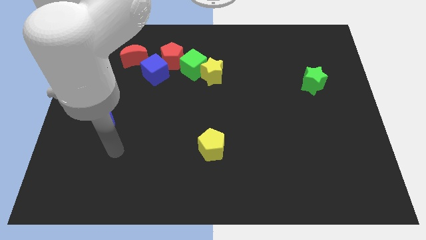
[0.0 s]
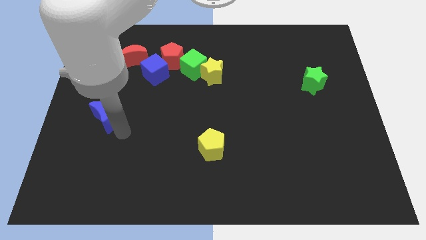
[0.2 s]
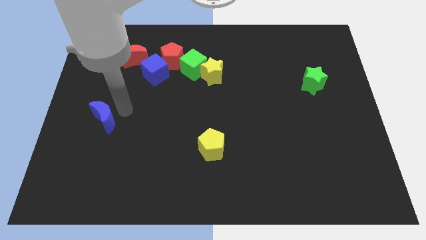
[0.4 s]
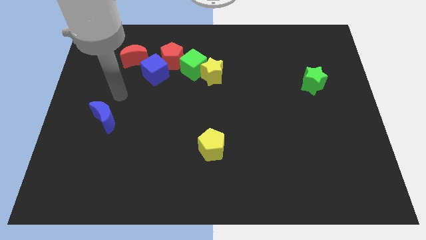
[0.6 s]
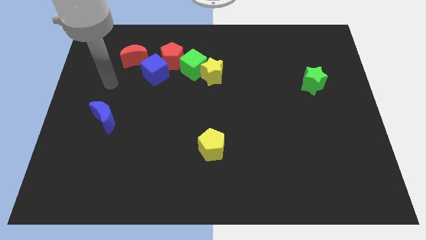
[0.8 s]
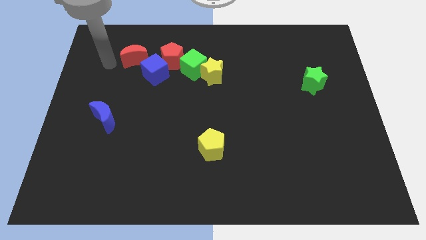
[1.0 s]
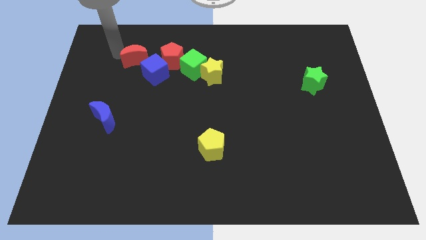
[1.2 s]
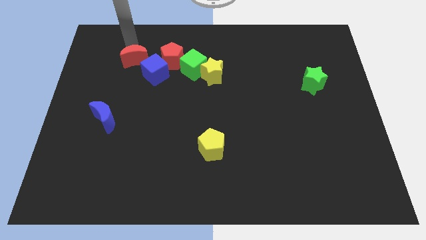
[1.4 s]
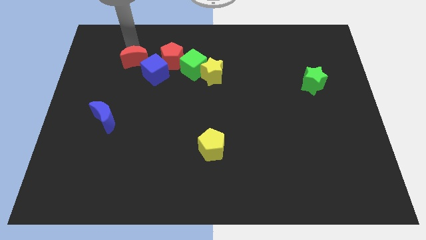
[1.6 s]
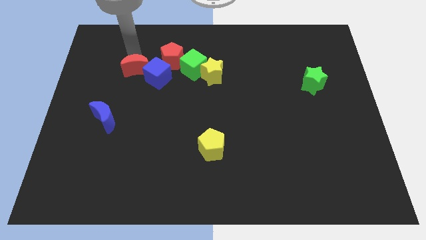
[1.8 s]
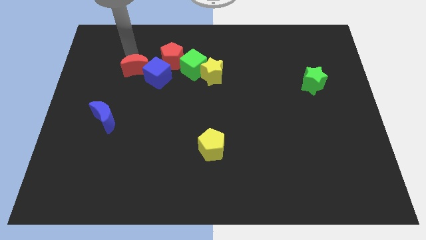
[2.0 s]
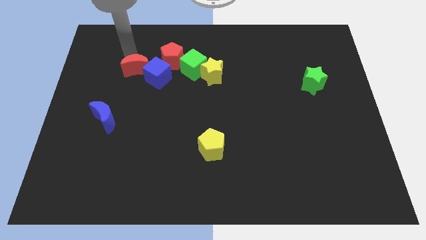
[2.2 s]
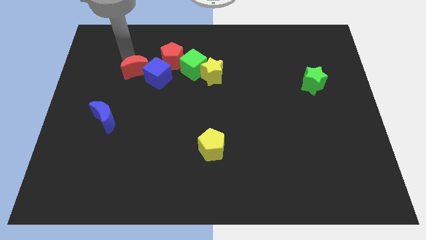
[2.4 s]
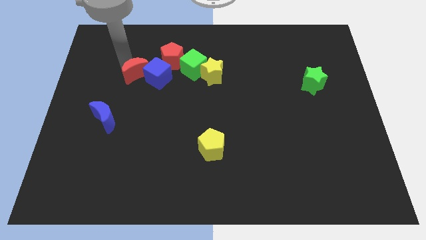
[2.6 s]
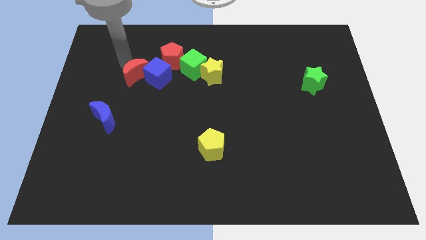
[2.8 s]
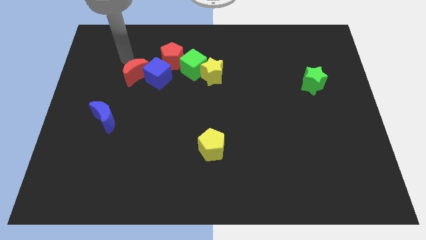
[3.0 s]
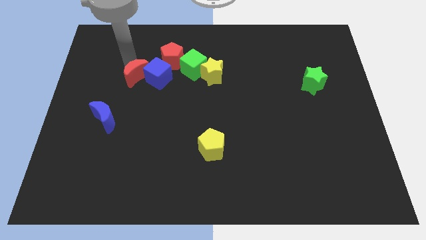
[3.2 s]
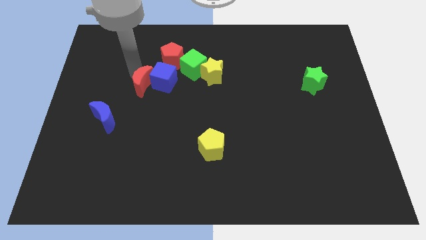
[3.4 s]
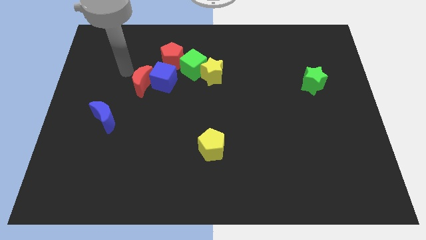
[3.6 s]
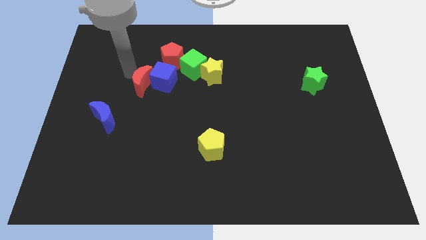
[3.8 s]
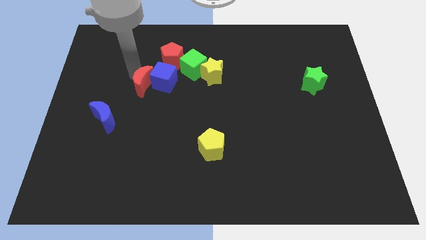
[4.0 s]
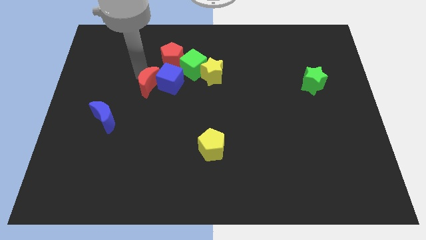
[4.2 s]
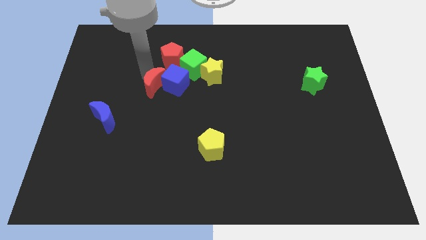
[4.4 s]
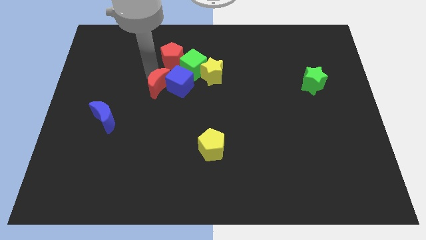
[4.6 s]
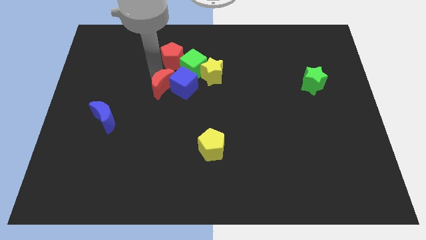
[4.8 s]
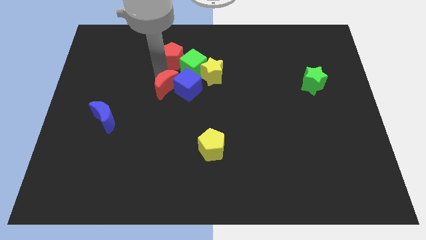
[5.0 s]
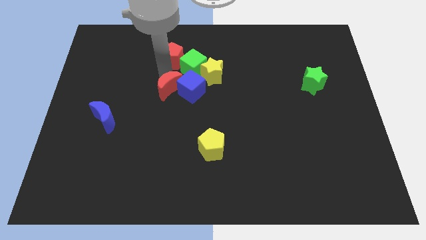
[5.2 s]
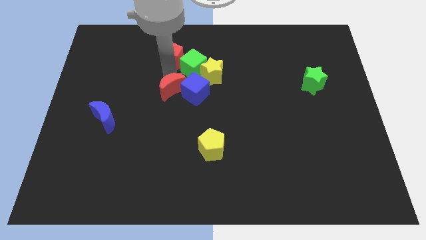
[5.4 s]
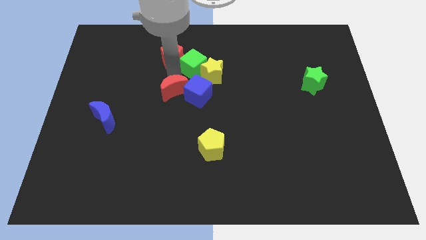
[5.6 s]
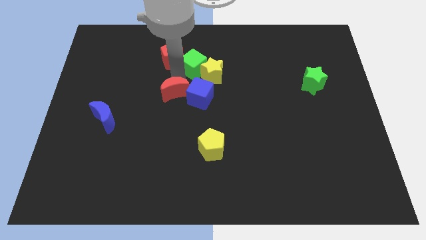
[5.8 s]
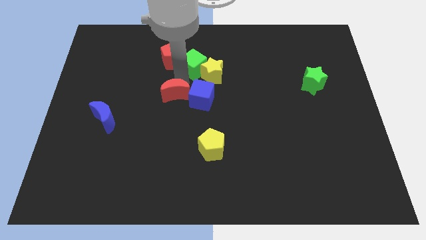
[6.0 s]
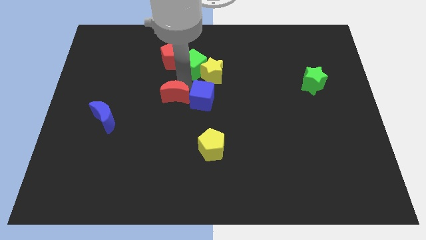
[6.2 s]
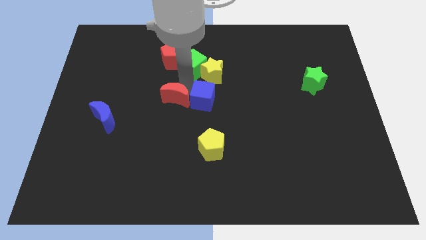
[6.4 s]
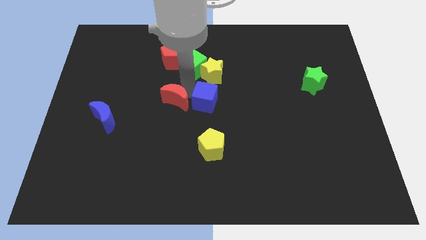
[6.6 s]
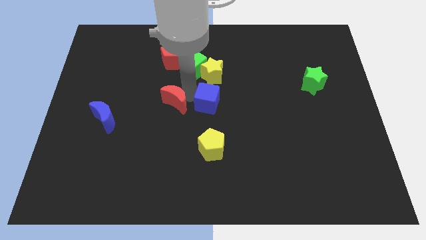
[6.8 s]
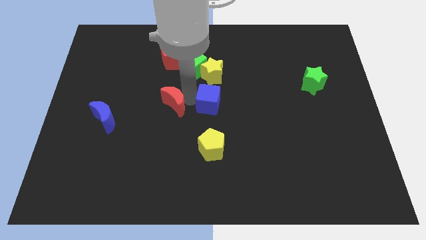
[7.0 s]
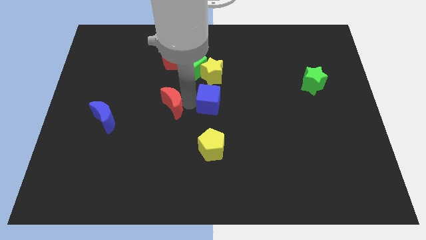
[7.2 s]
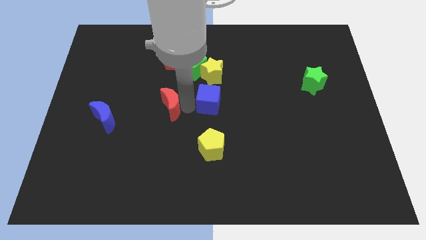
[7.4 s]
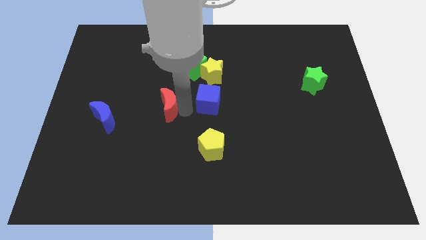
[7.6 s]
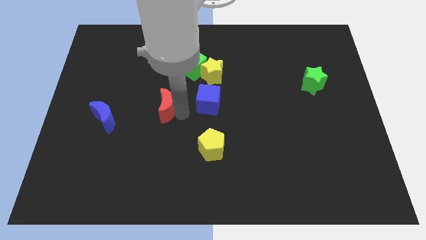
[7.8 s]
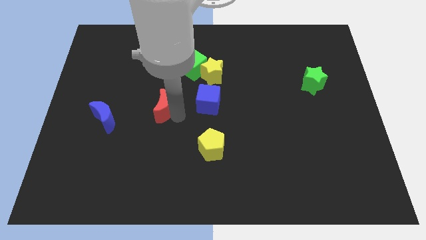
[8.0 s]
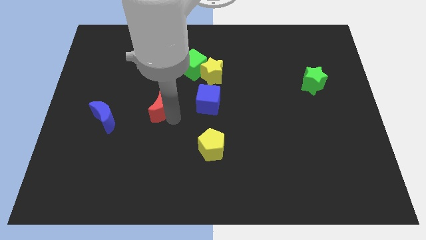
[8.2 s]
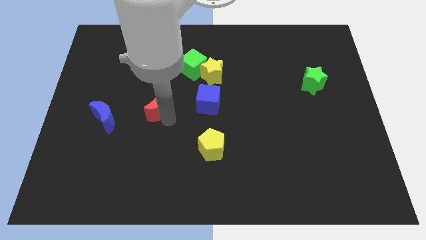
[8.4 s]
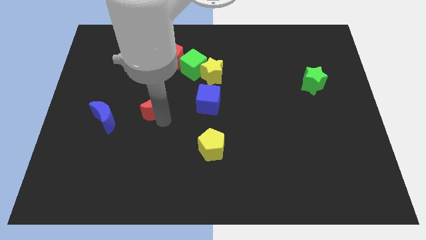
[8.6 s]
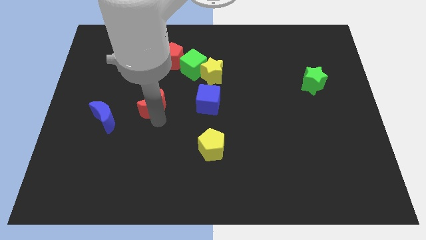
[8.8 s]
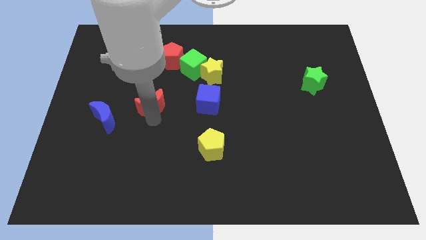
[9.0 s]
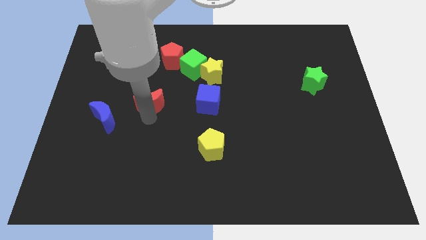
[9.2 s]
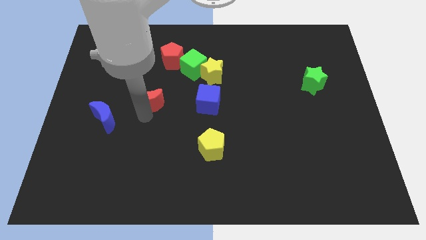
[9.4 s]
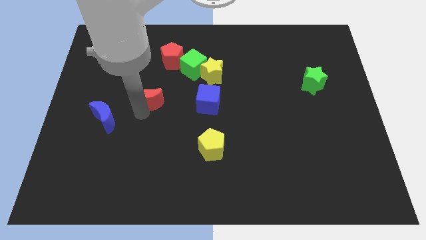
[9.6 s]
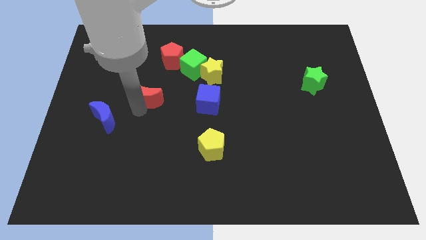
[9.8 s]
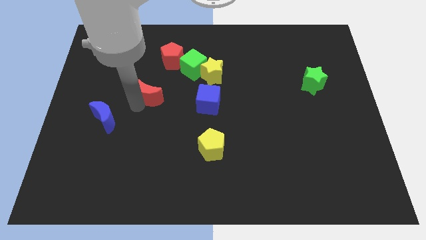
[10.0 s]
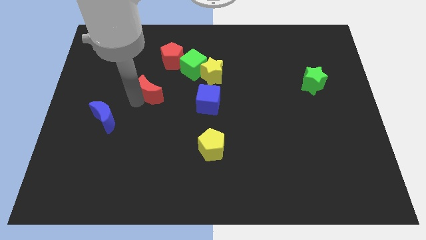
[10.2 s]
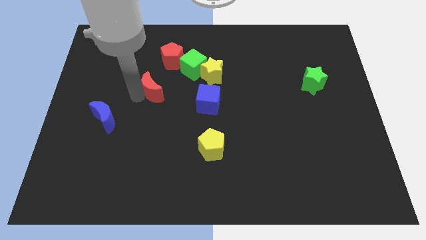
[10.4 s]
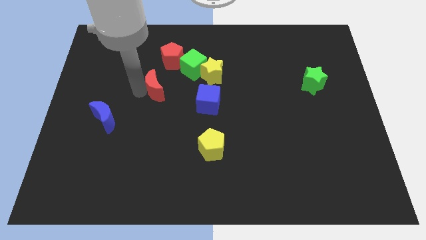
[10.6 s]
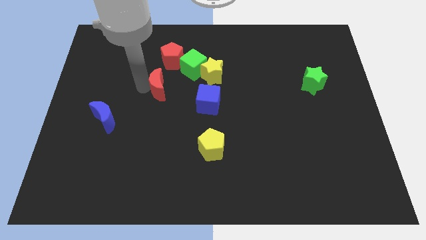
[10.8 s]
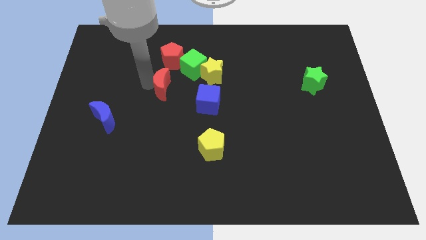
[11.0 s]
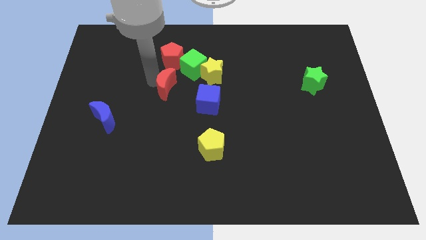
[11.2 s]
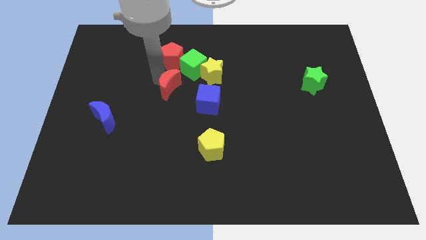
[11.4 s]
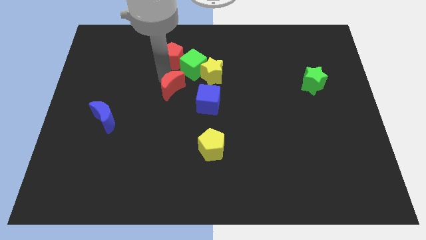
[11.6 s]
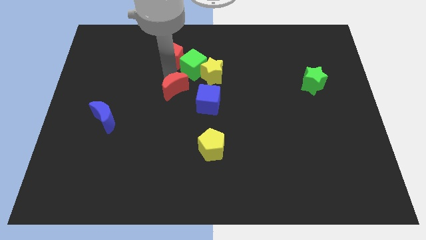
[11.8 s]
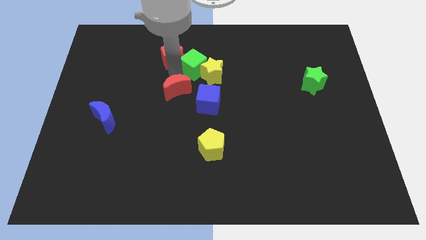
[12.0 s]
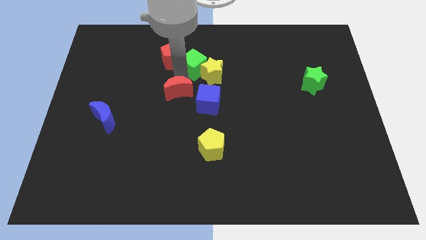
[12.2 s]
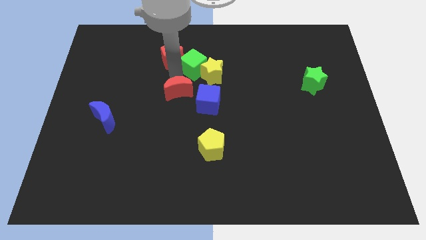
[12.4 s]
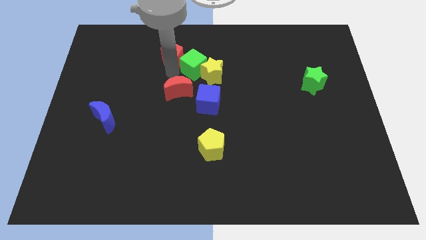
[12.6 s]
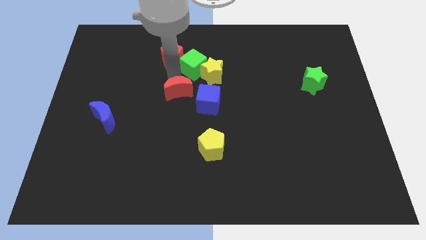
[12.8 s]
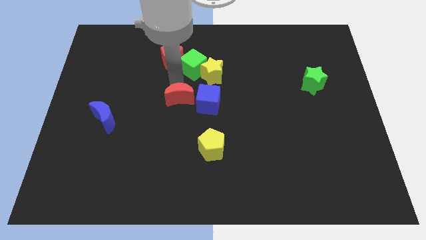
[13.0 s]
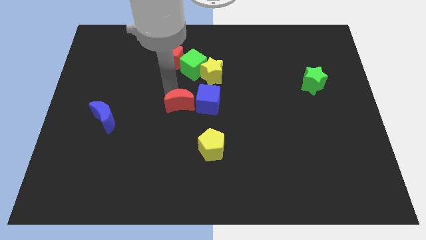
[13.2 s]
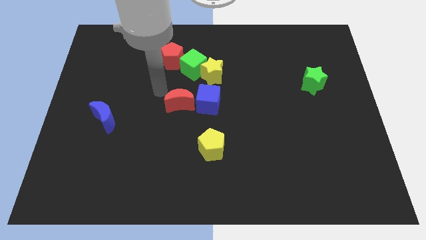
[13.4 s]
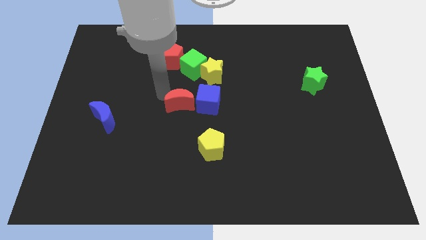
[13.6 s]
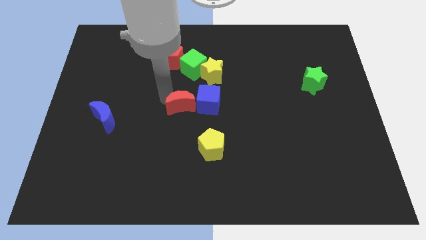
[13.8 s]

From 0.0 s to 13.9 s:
move the red moon diagonally downwards and right

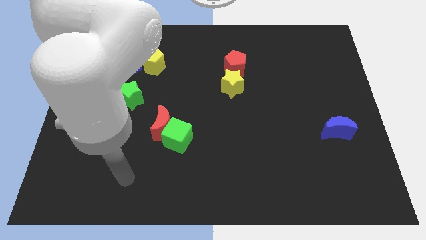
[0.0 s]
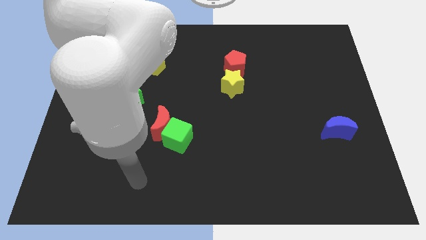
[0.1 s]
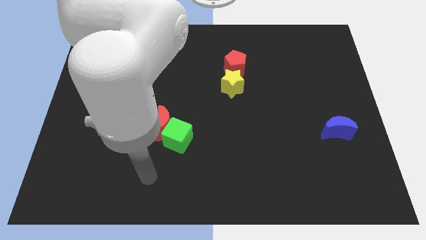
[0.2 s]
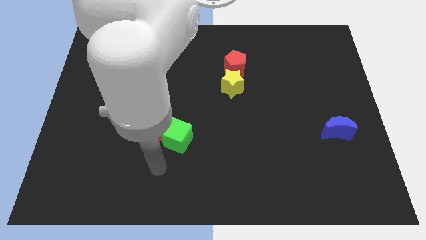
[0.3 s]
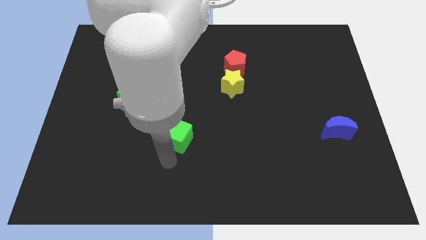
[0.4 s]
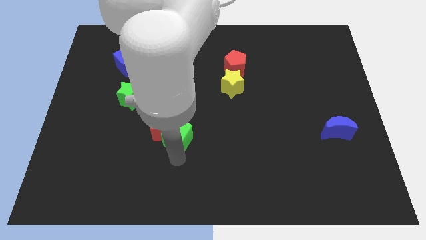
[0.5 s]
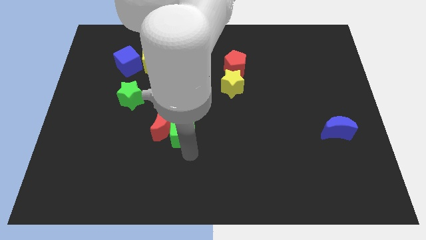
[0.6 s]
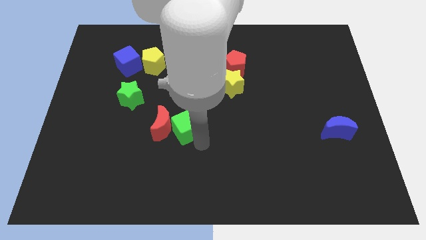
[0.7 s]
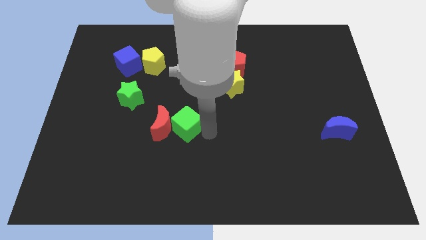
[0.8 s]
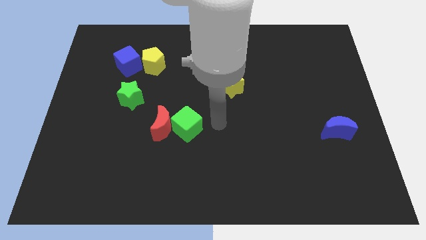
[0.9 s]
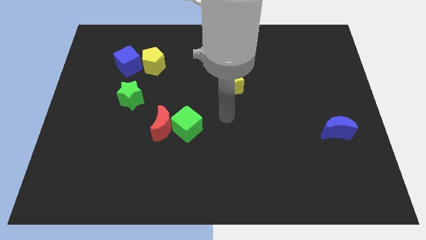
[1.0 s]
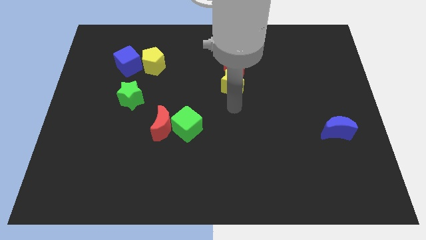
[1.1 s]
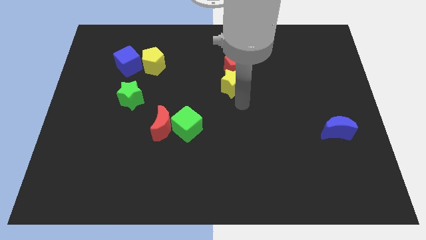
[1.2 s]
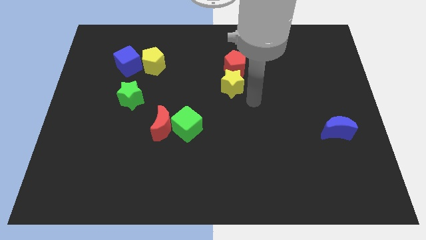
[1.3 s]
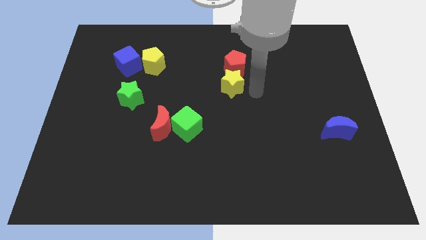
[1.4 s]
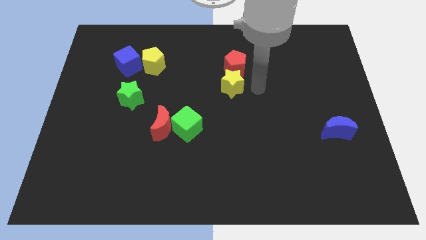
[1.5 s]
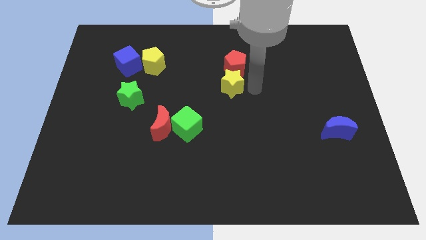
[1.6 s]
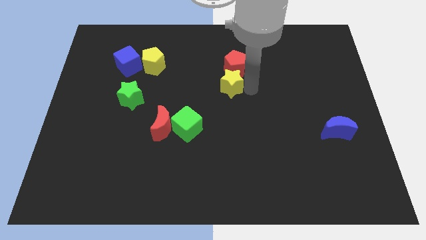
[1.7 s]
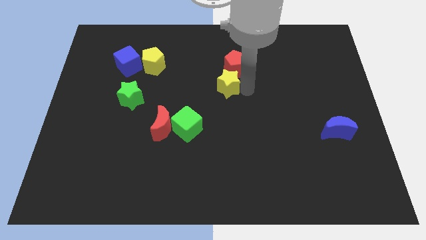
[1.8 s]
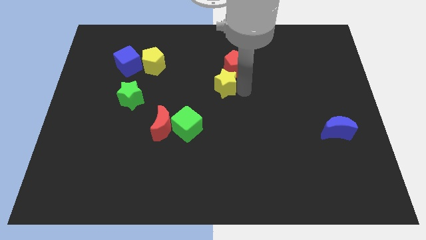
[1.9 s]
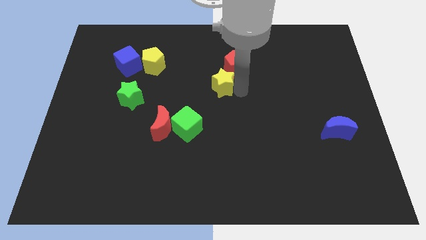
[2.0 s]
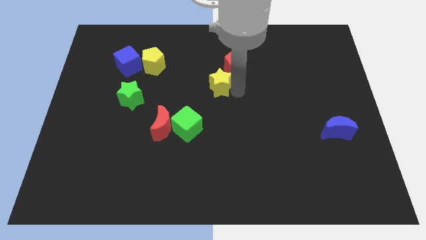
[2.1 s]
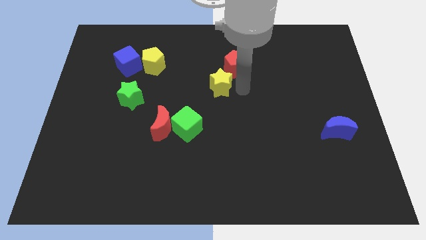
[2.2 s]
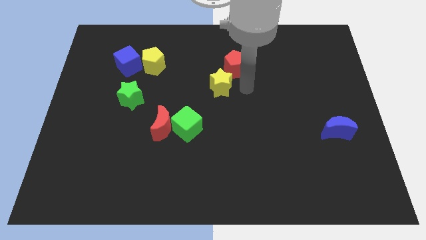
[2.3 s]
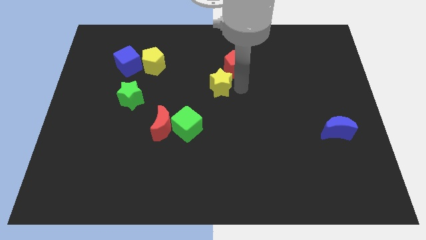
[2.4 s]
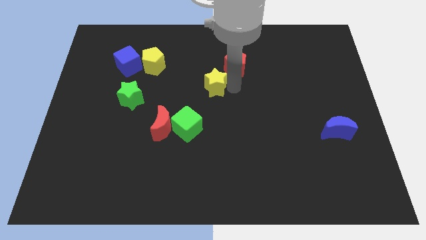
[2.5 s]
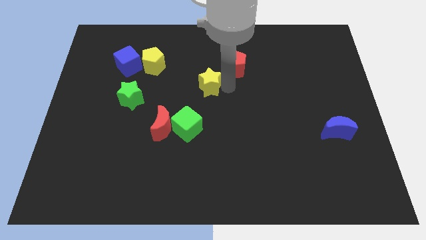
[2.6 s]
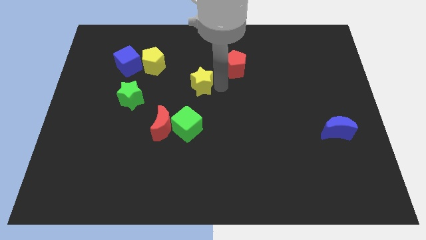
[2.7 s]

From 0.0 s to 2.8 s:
slightly slide the yellow star to the left
